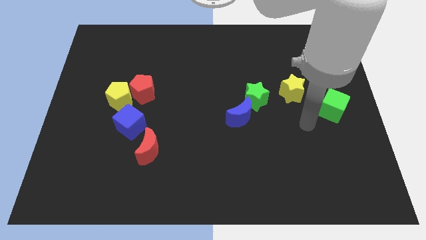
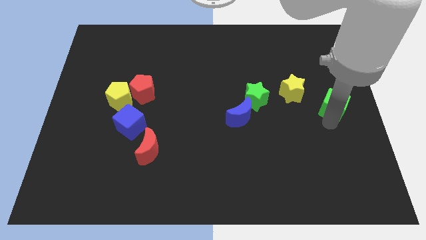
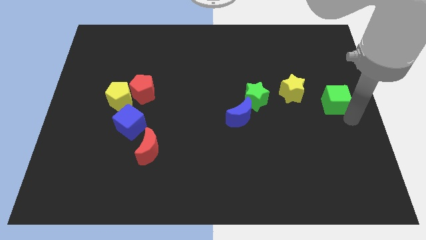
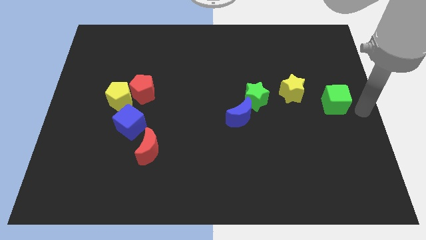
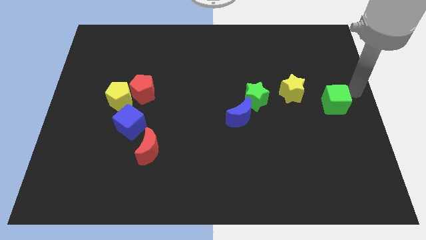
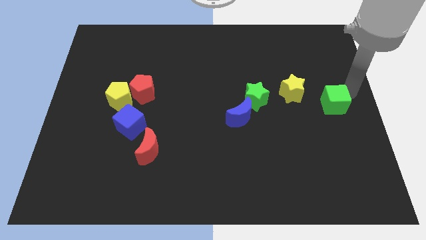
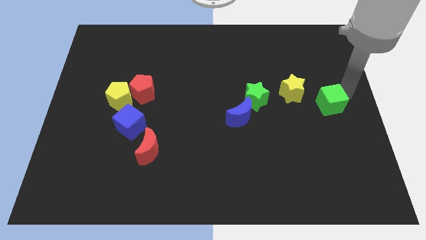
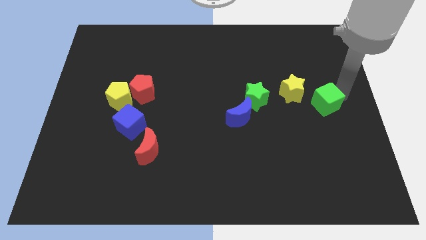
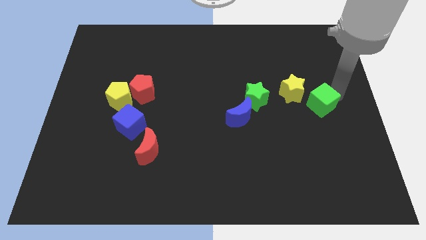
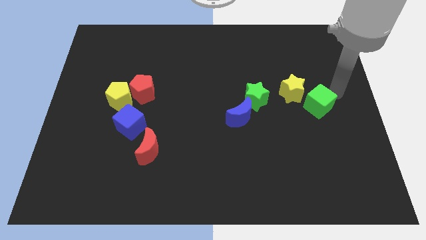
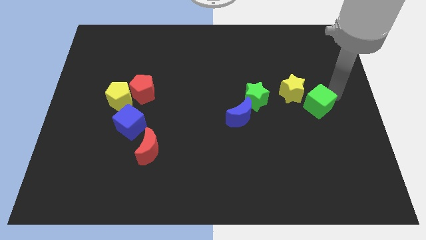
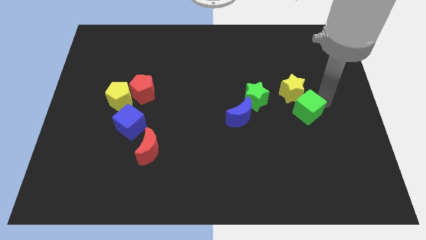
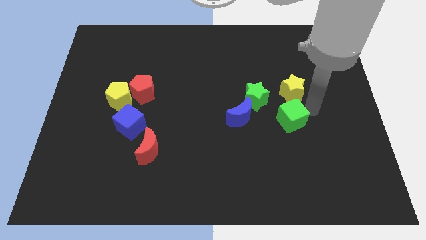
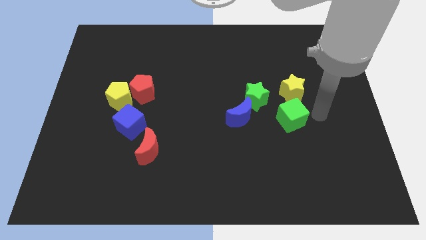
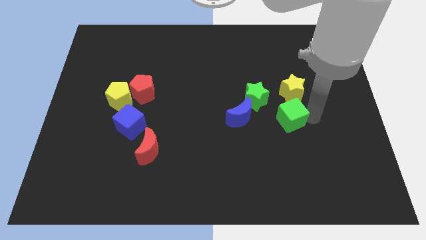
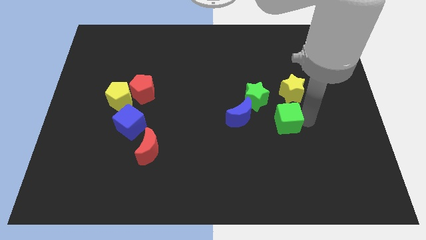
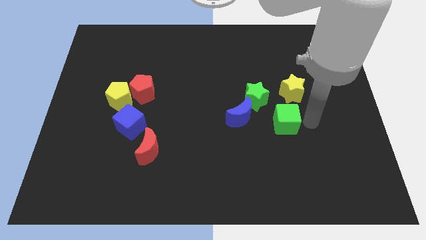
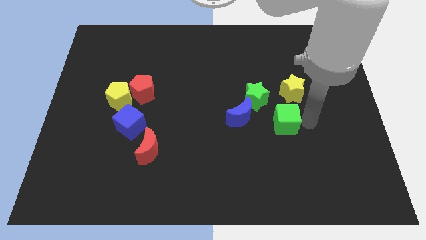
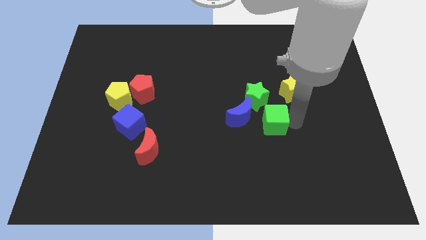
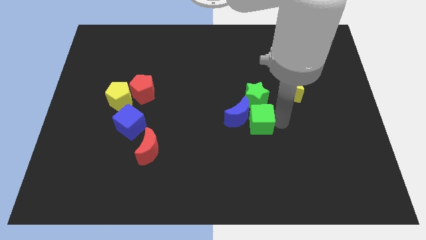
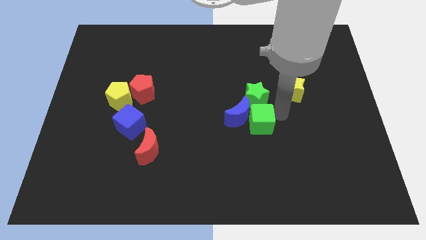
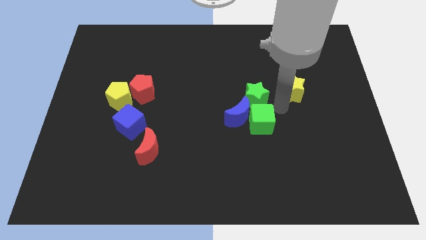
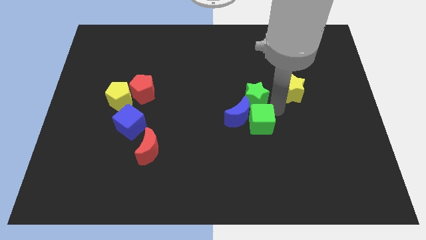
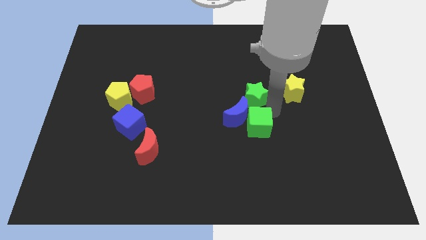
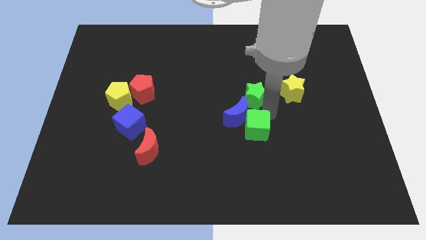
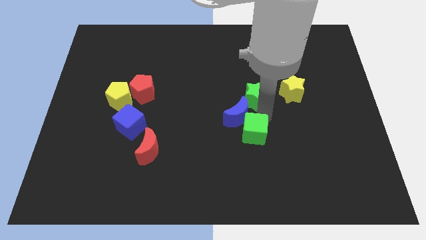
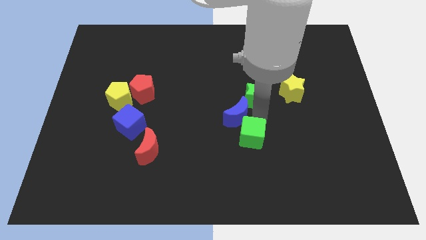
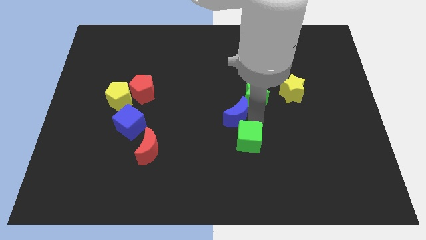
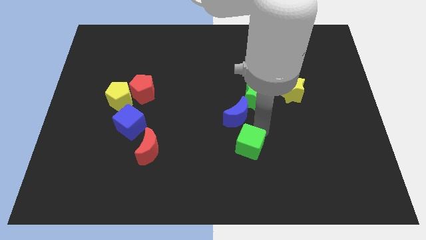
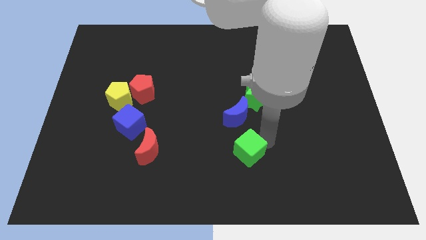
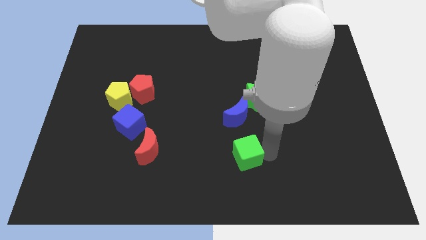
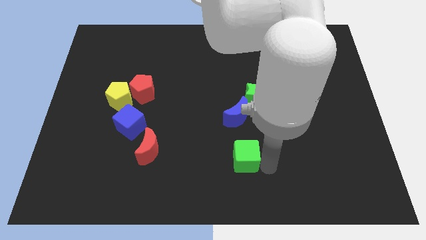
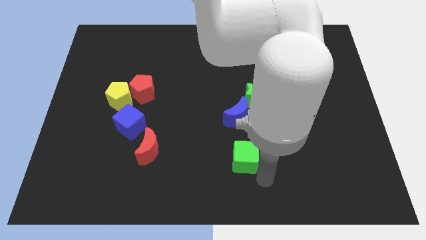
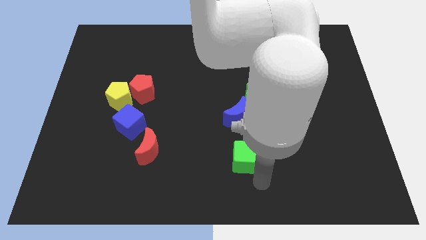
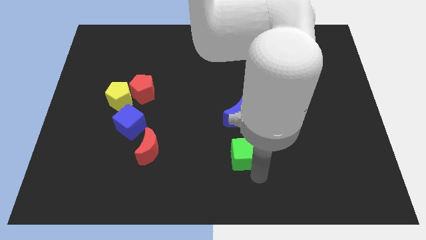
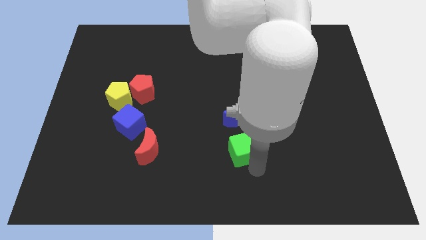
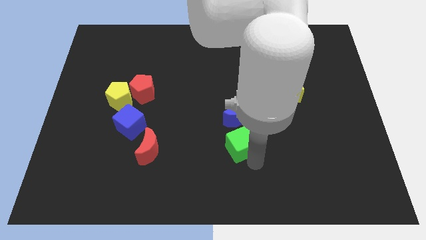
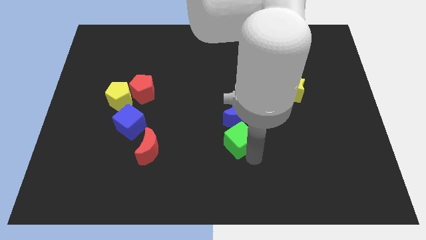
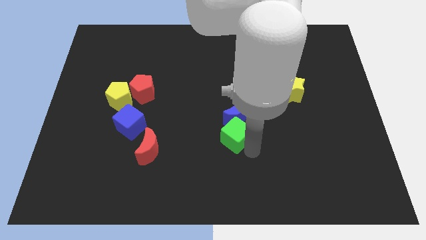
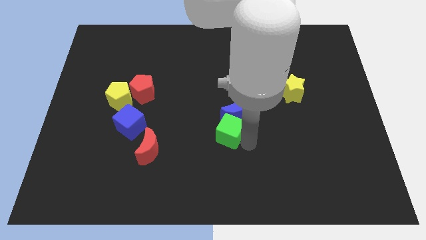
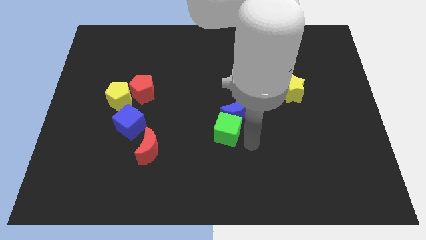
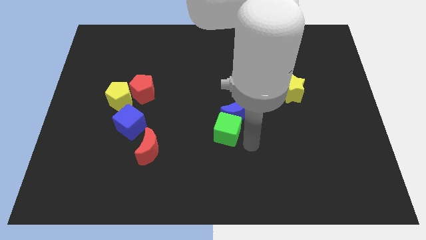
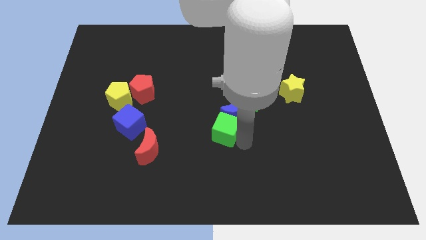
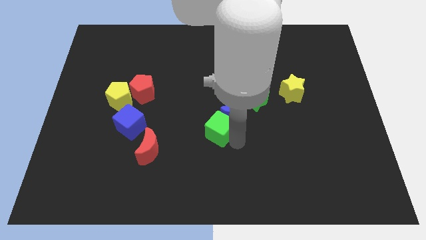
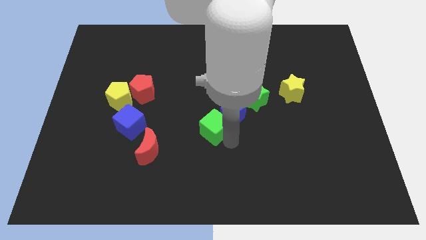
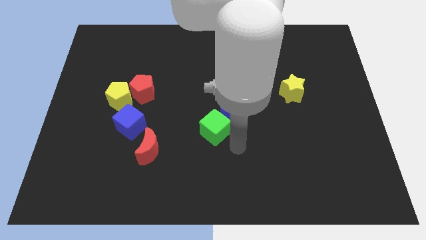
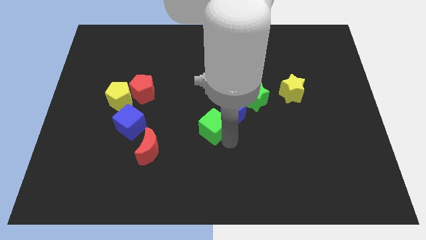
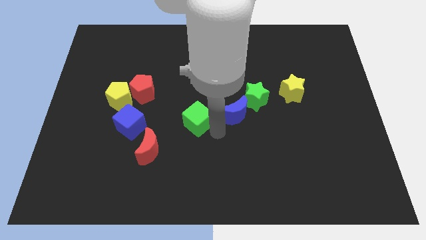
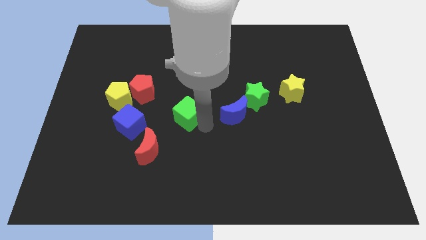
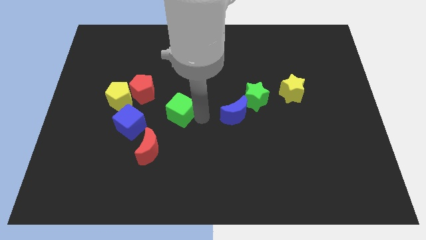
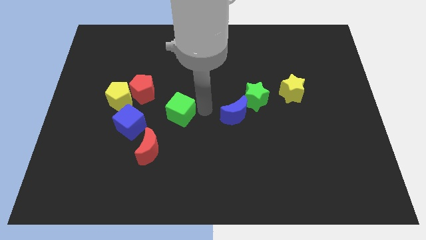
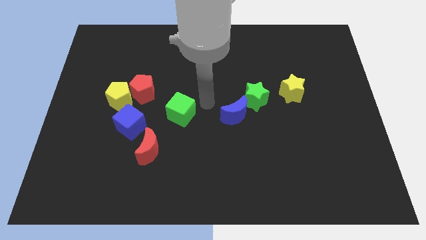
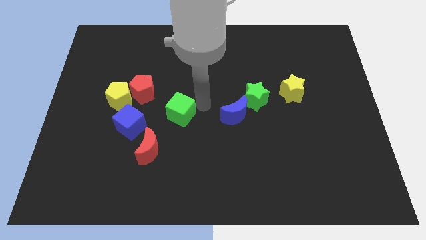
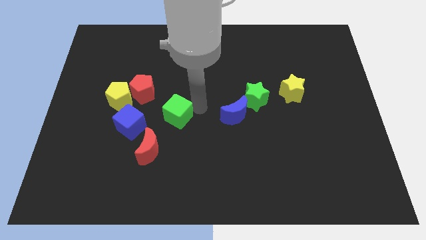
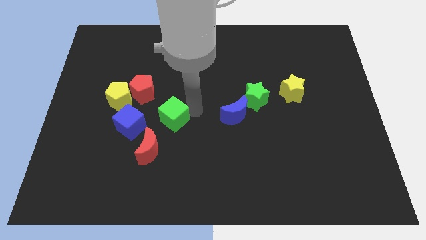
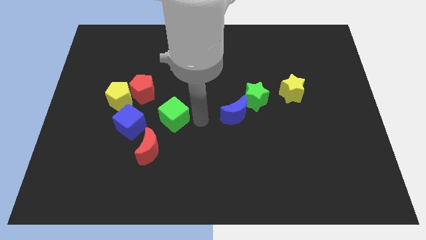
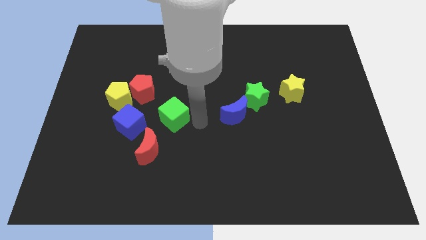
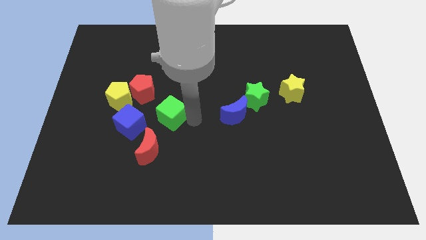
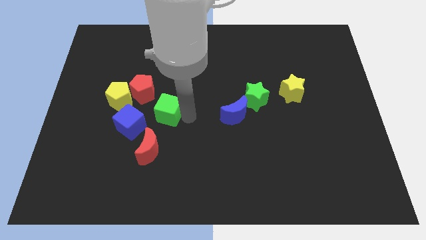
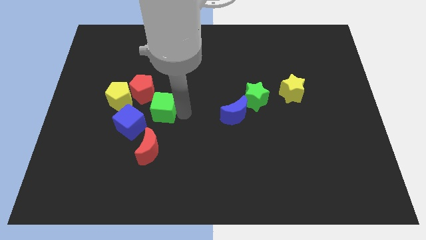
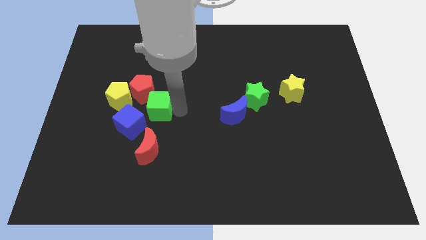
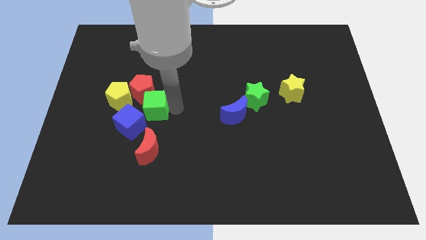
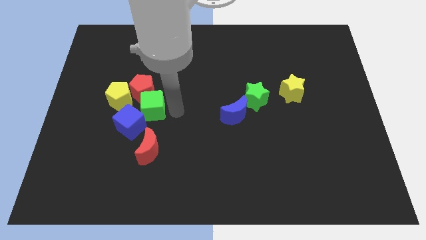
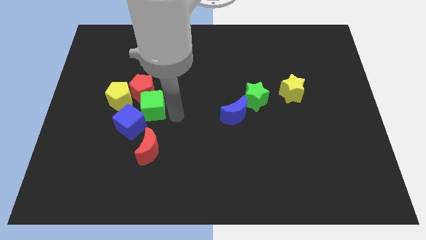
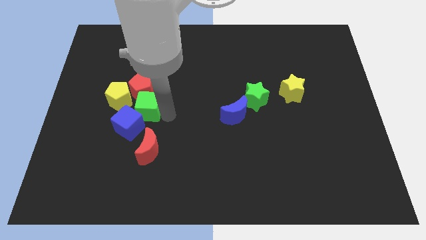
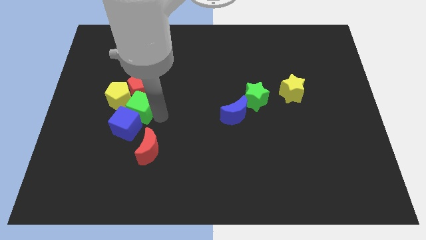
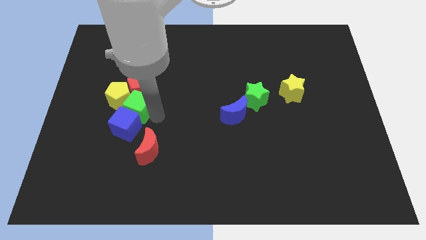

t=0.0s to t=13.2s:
slide the green cube close to the yellow pentagon
